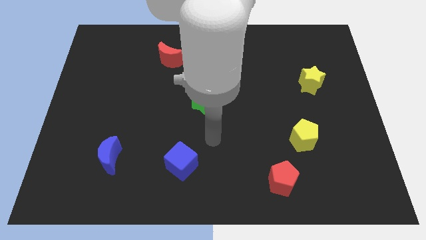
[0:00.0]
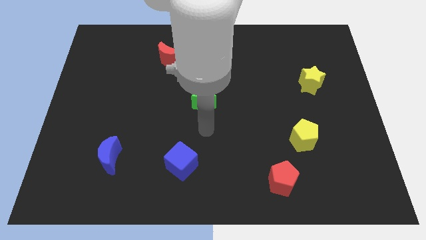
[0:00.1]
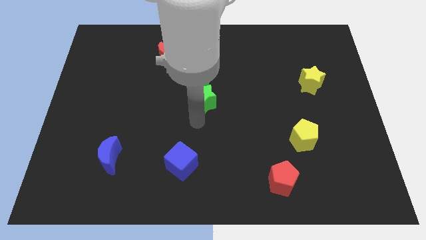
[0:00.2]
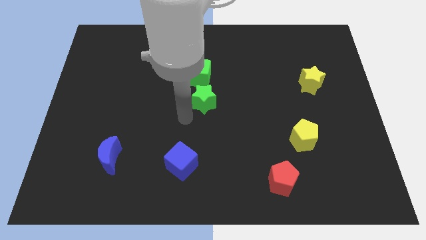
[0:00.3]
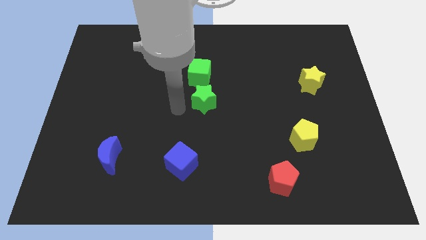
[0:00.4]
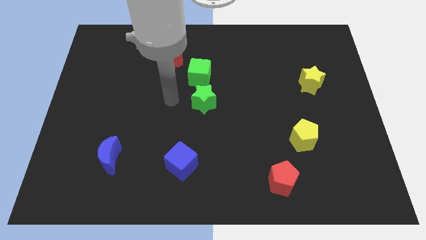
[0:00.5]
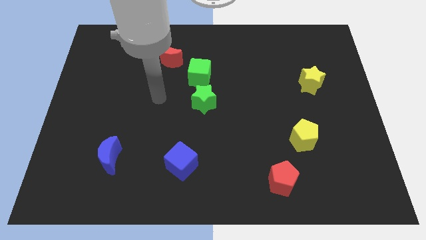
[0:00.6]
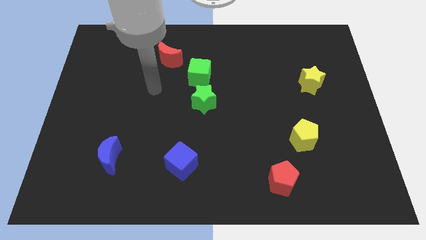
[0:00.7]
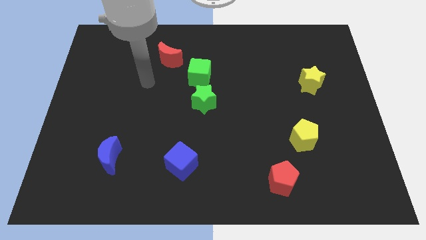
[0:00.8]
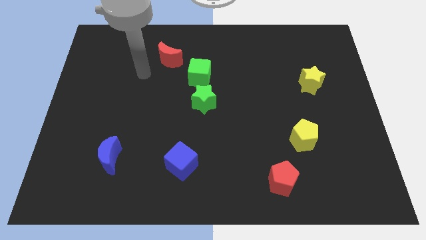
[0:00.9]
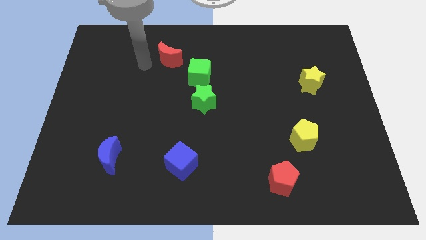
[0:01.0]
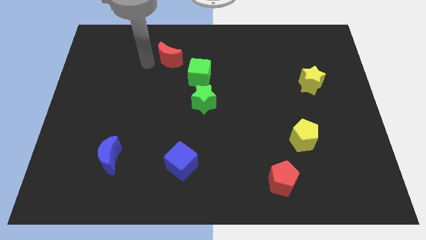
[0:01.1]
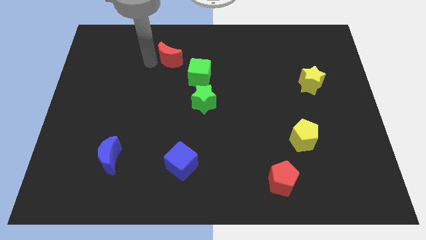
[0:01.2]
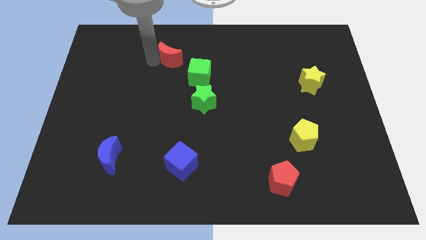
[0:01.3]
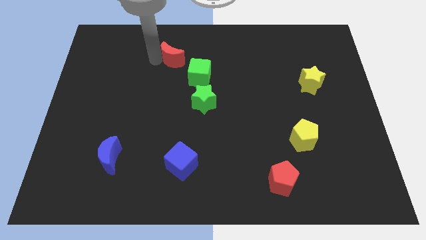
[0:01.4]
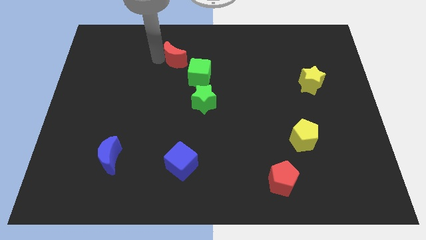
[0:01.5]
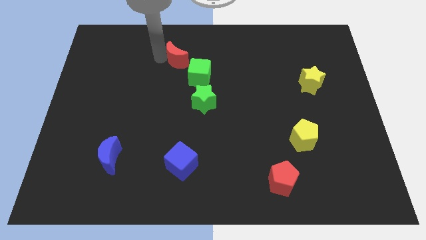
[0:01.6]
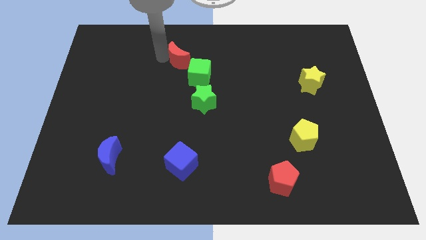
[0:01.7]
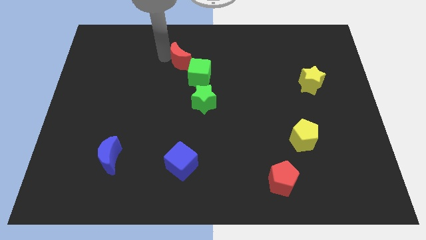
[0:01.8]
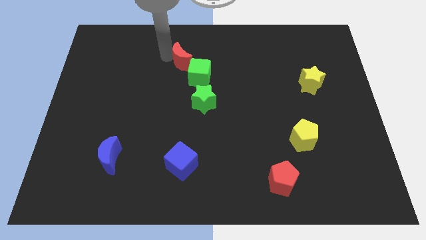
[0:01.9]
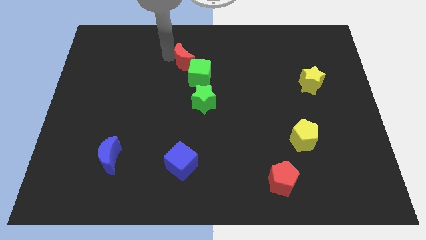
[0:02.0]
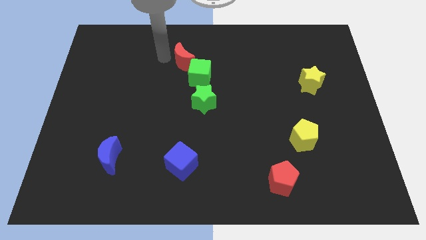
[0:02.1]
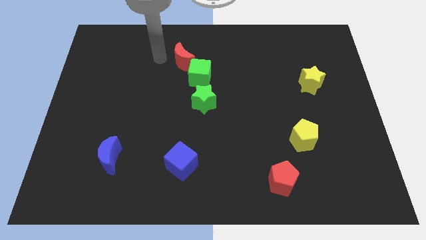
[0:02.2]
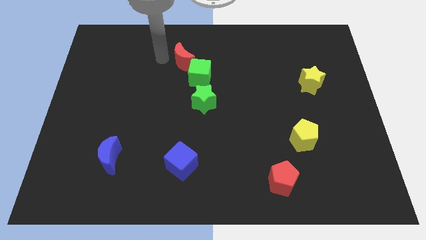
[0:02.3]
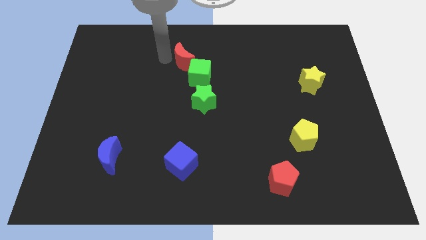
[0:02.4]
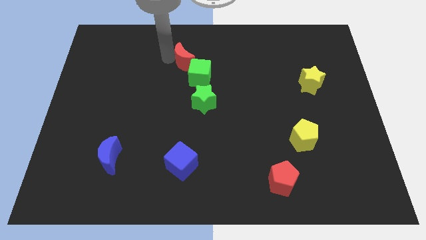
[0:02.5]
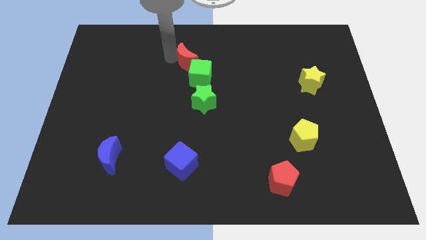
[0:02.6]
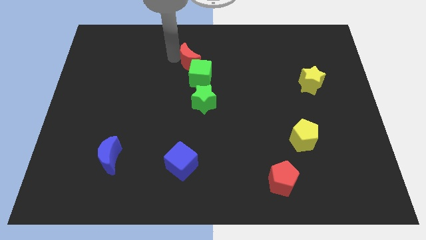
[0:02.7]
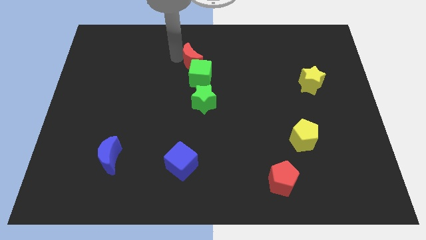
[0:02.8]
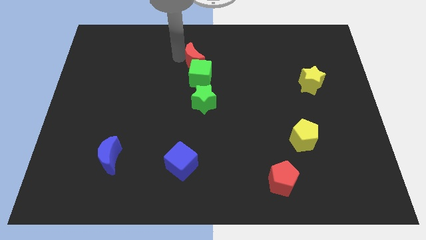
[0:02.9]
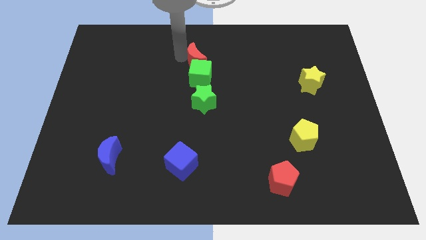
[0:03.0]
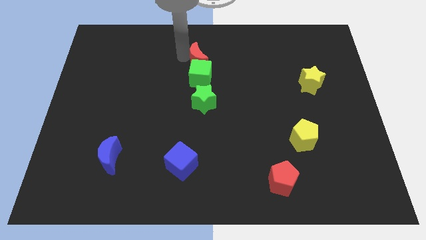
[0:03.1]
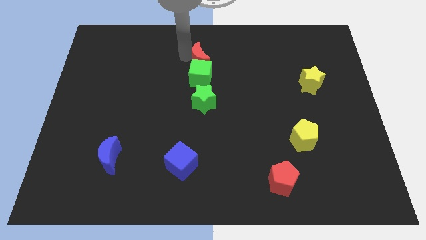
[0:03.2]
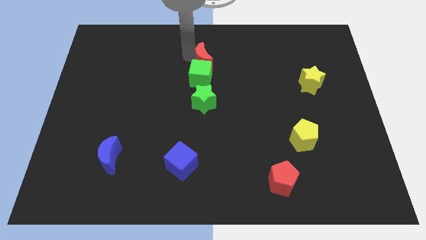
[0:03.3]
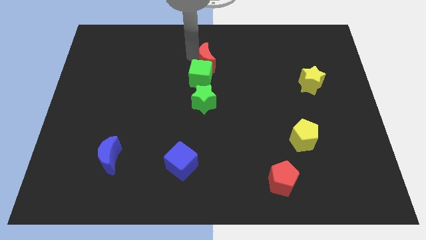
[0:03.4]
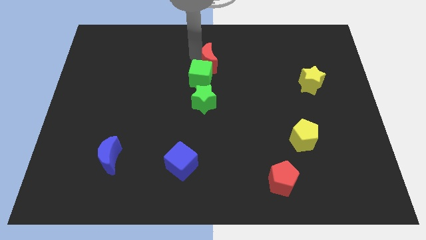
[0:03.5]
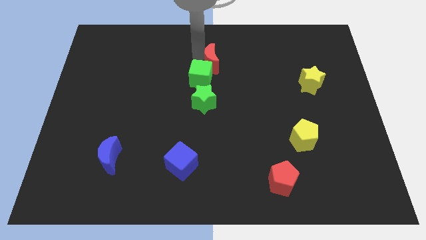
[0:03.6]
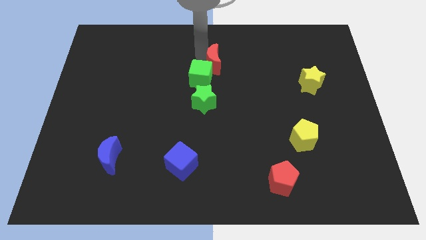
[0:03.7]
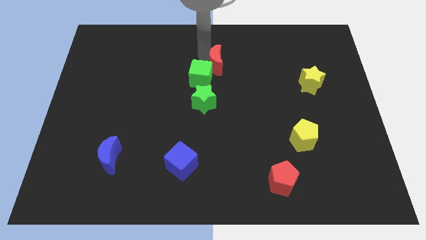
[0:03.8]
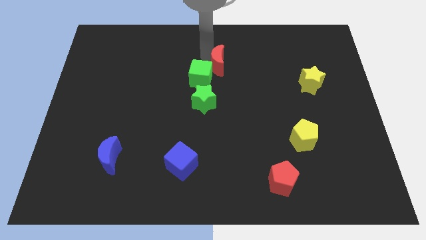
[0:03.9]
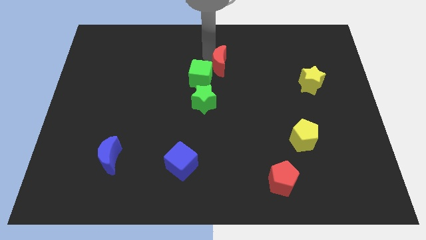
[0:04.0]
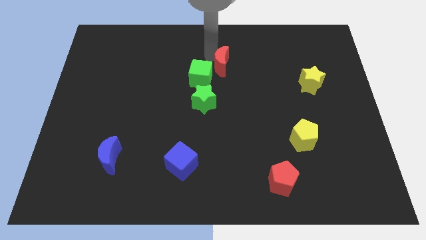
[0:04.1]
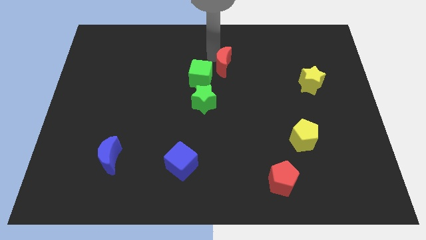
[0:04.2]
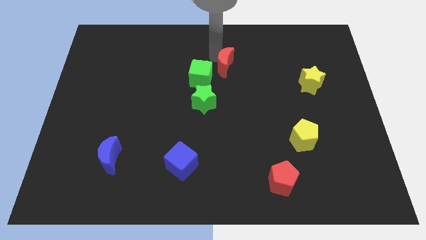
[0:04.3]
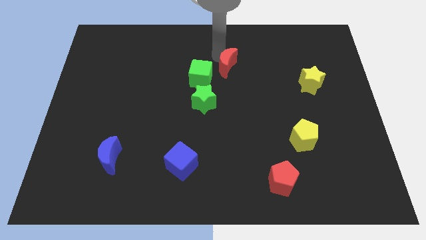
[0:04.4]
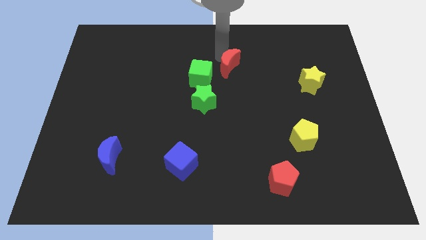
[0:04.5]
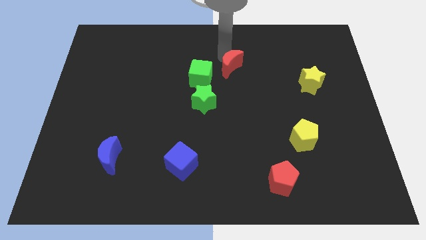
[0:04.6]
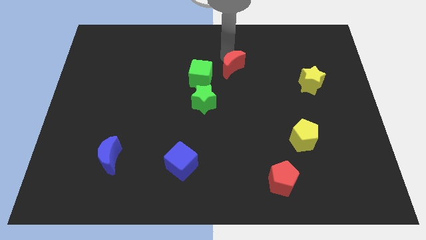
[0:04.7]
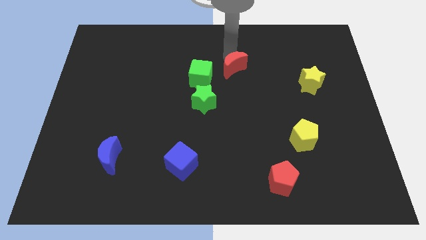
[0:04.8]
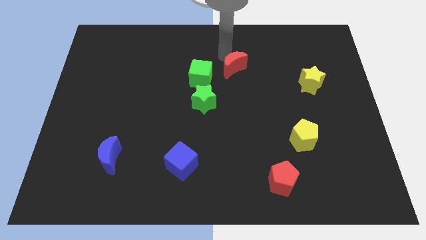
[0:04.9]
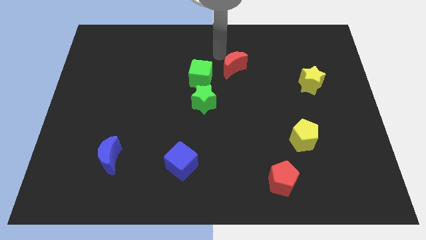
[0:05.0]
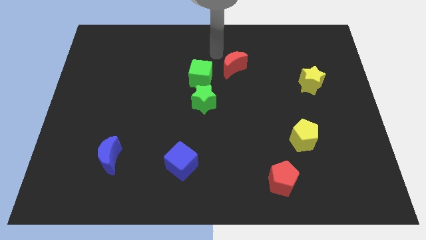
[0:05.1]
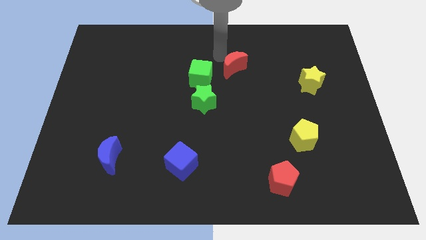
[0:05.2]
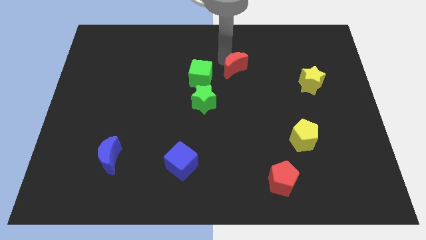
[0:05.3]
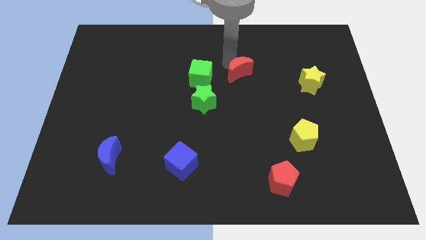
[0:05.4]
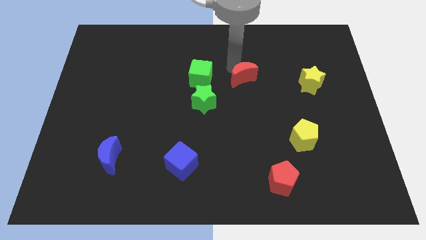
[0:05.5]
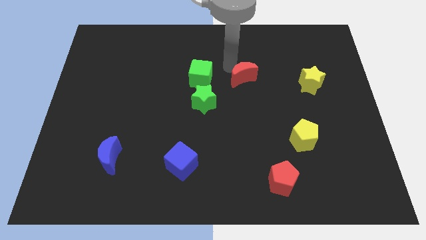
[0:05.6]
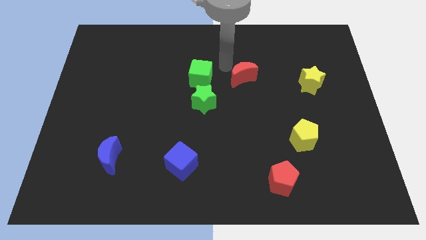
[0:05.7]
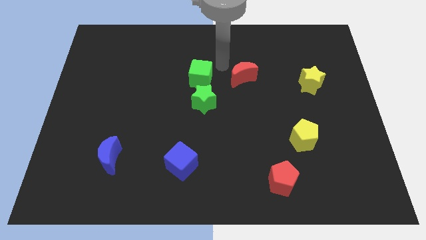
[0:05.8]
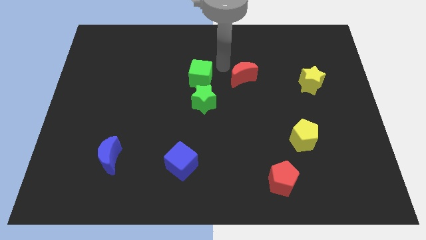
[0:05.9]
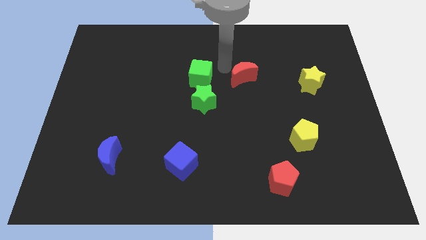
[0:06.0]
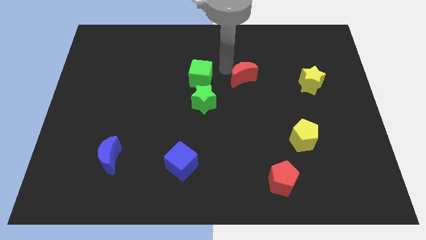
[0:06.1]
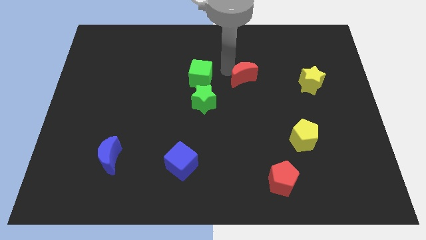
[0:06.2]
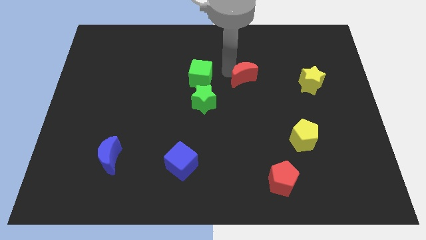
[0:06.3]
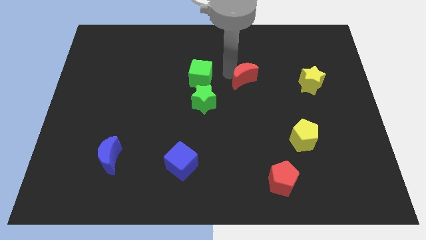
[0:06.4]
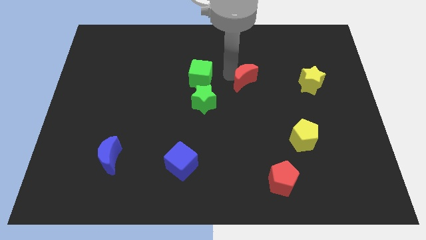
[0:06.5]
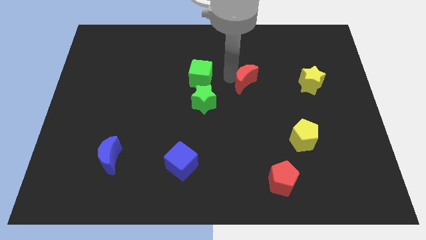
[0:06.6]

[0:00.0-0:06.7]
put the red moon left of the yellow star
